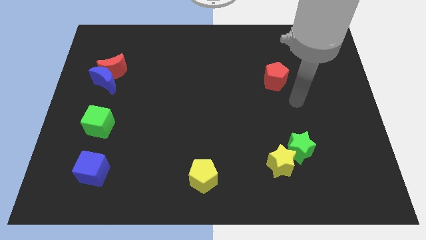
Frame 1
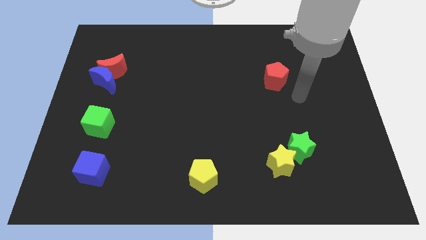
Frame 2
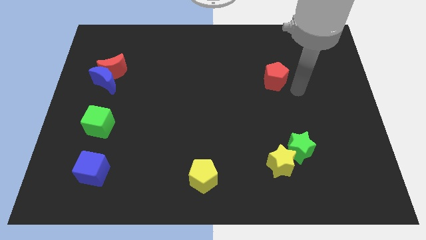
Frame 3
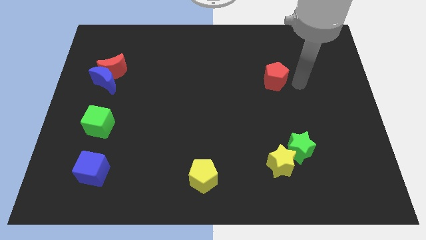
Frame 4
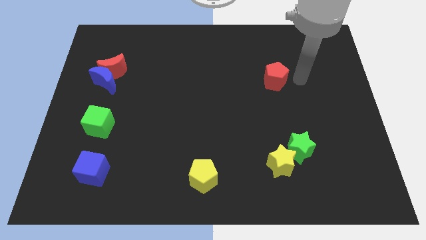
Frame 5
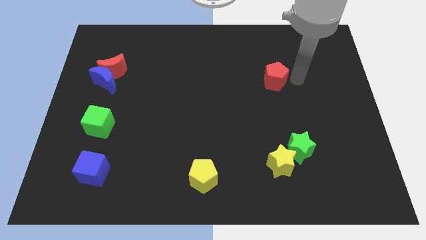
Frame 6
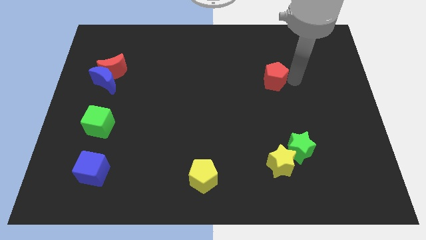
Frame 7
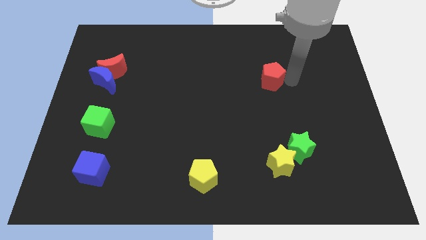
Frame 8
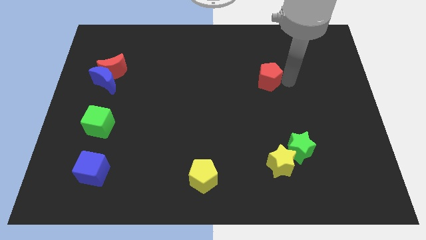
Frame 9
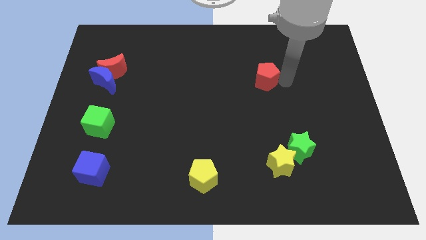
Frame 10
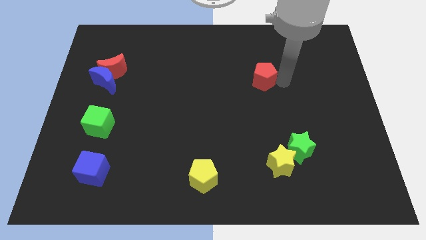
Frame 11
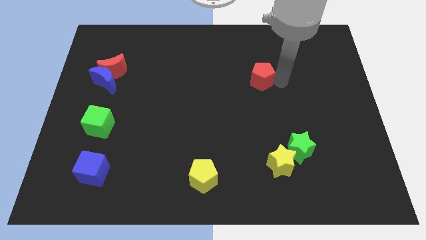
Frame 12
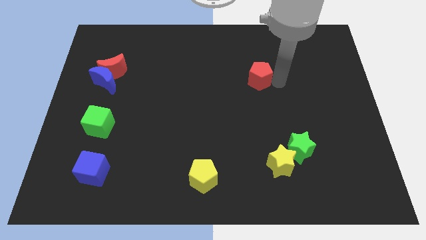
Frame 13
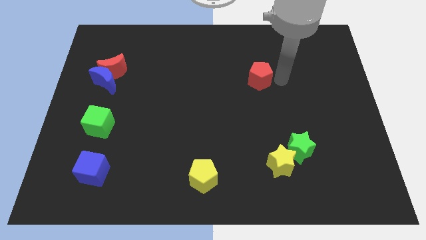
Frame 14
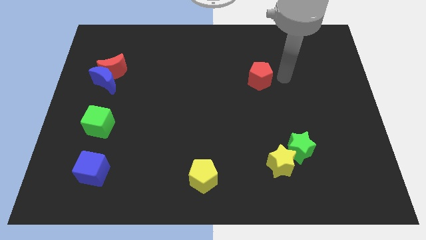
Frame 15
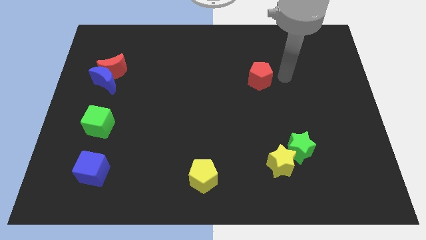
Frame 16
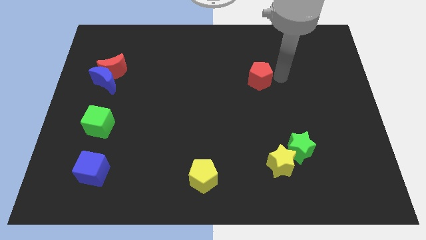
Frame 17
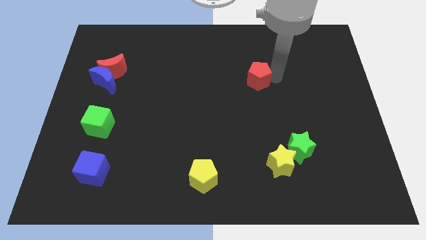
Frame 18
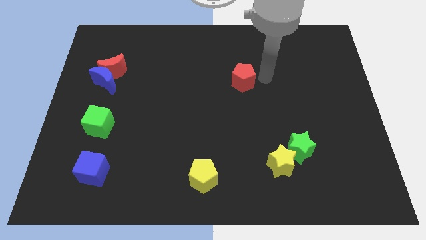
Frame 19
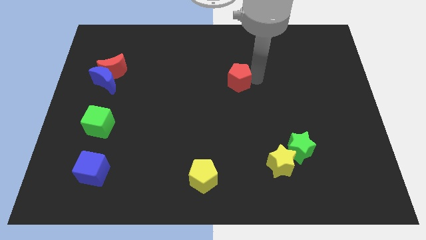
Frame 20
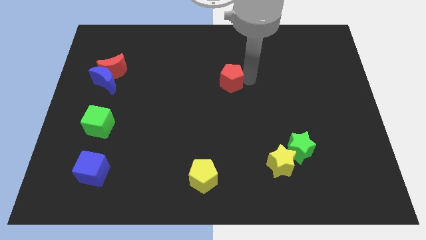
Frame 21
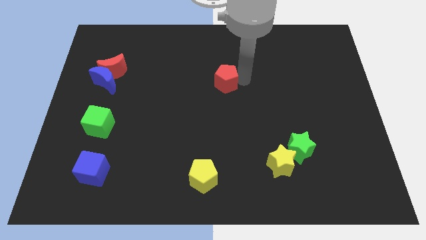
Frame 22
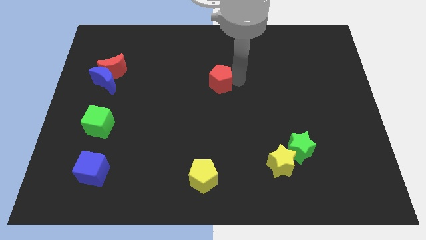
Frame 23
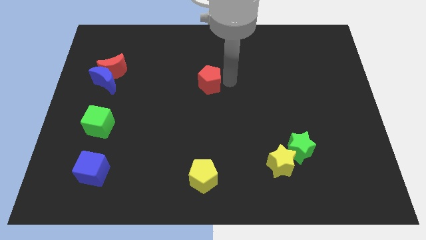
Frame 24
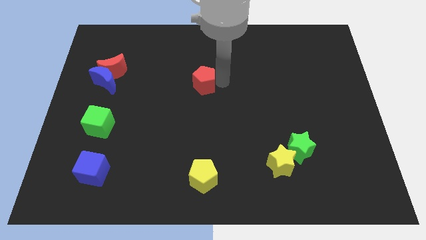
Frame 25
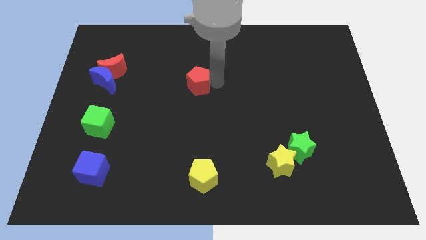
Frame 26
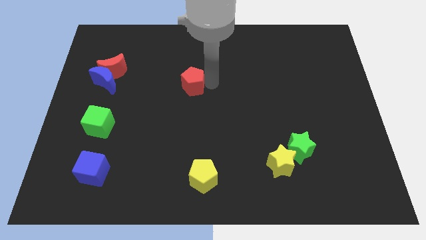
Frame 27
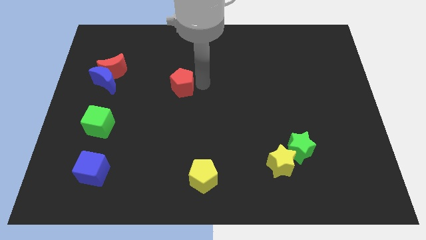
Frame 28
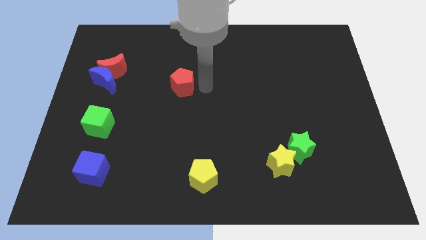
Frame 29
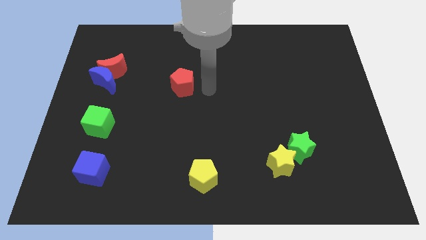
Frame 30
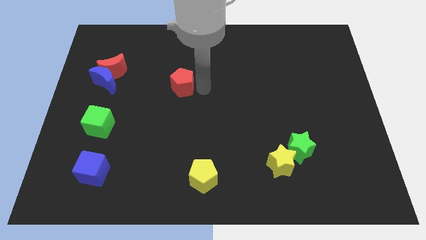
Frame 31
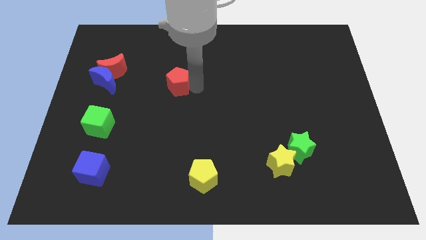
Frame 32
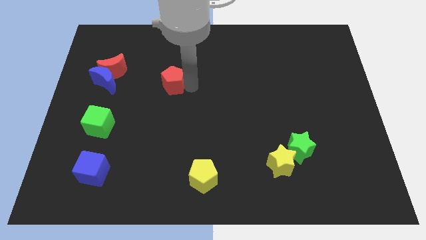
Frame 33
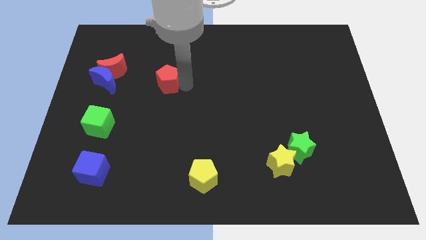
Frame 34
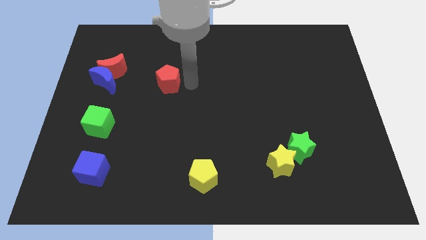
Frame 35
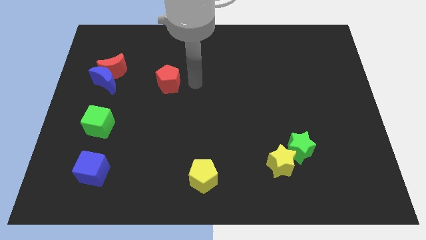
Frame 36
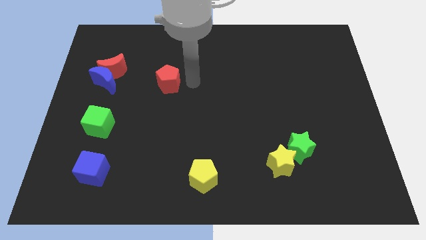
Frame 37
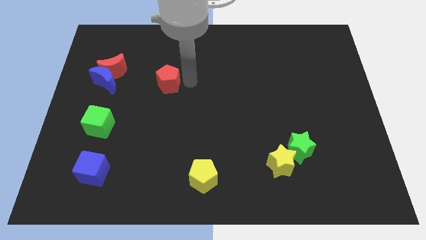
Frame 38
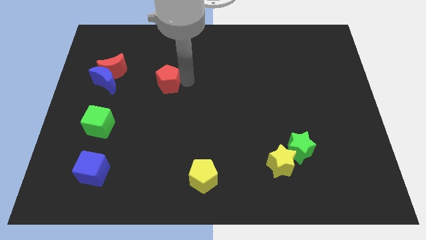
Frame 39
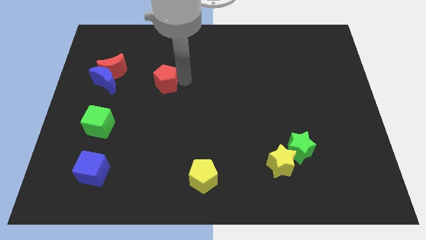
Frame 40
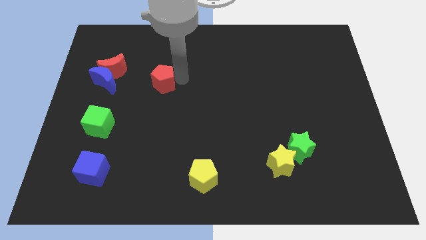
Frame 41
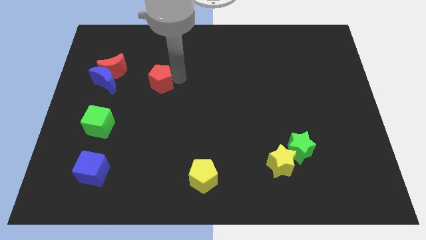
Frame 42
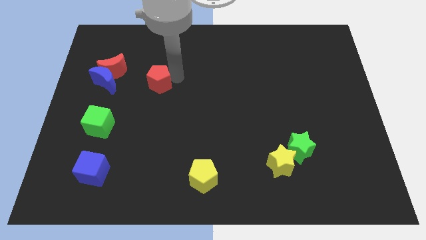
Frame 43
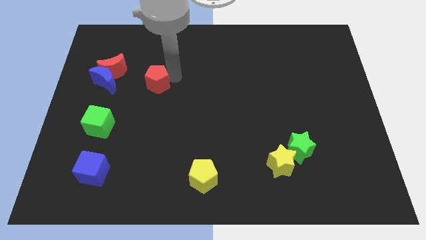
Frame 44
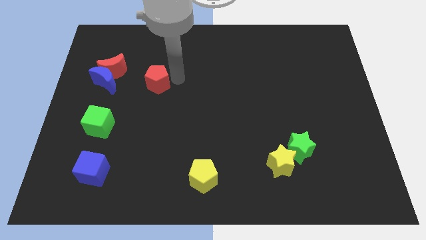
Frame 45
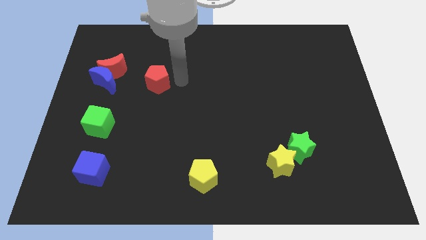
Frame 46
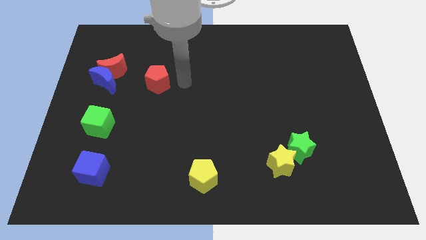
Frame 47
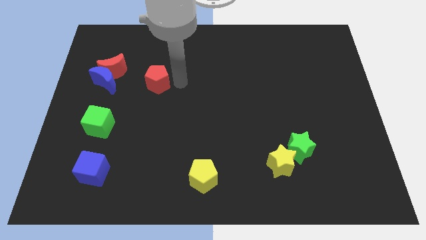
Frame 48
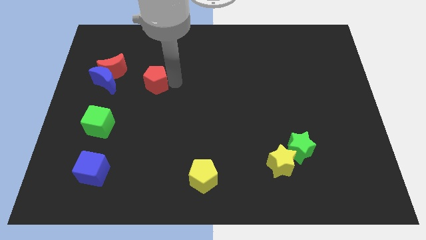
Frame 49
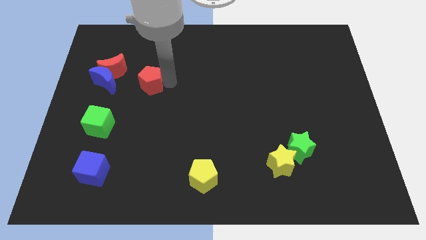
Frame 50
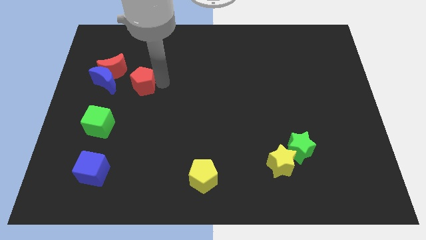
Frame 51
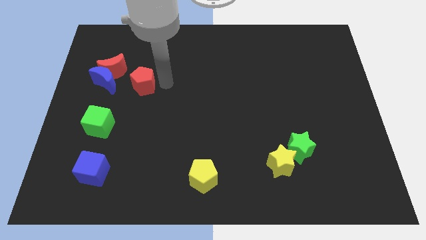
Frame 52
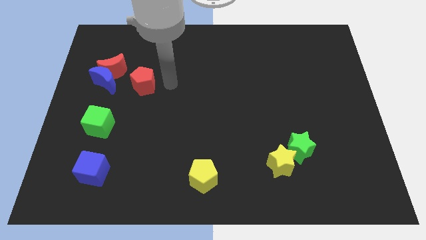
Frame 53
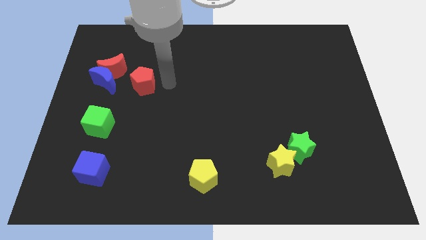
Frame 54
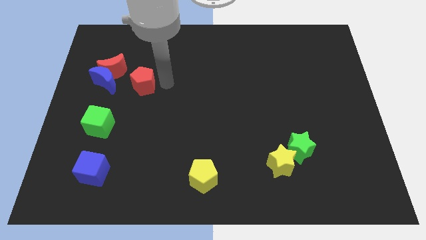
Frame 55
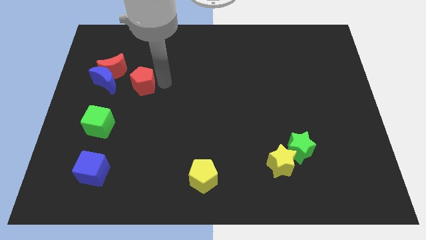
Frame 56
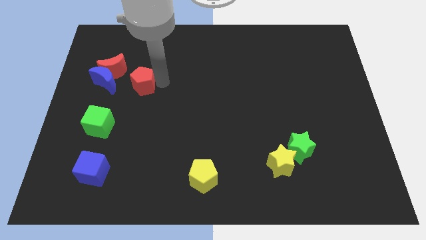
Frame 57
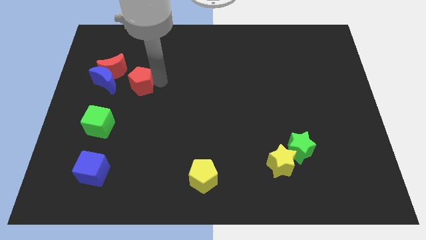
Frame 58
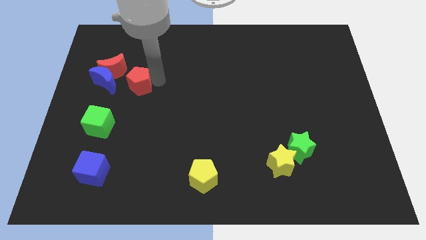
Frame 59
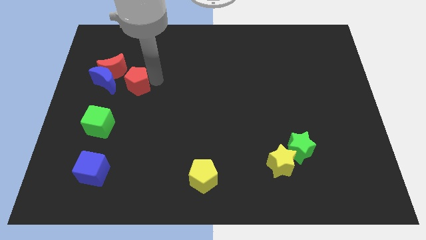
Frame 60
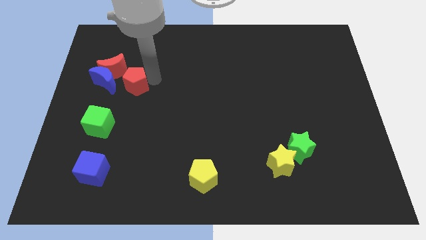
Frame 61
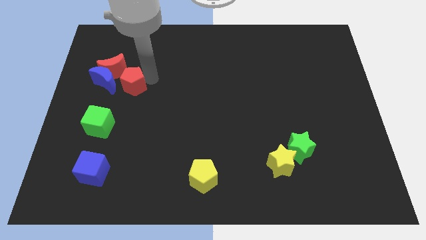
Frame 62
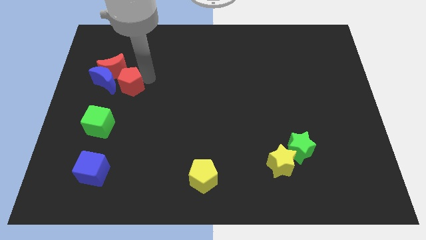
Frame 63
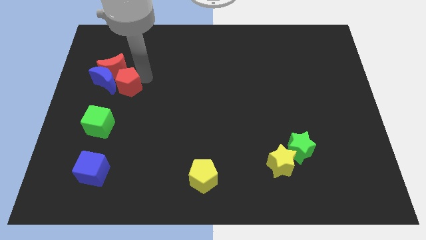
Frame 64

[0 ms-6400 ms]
slide the red pentagon close to the blue moon

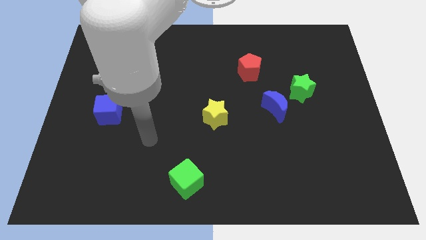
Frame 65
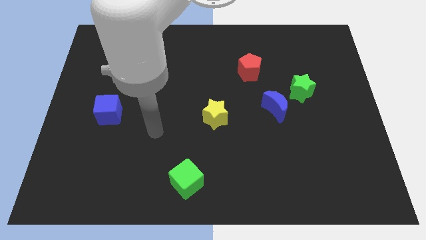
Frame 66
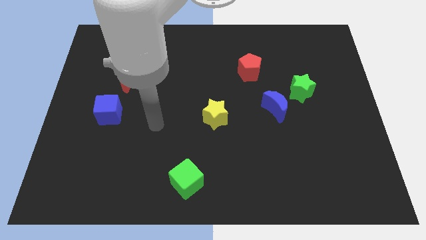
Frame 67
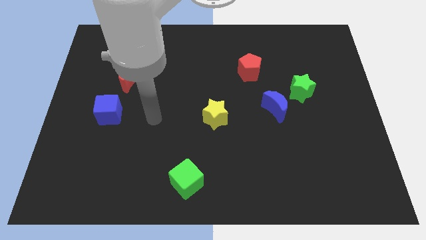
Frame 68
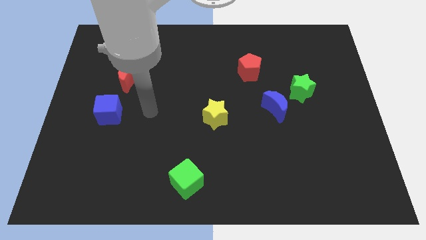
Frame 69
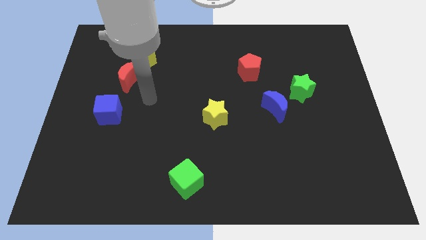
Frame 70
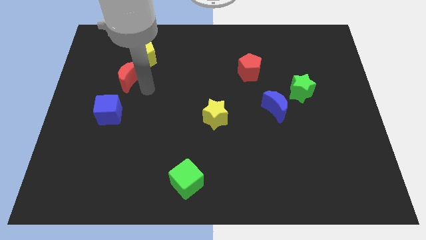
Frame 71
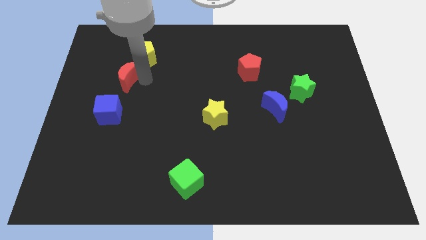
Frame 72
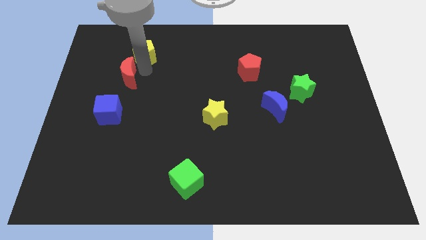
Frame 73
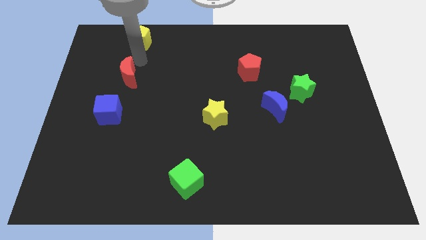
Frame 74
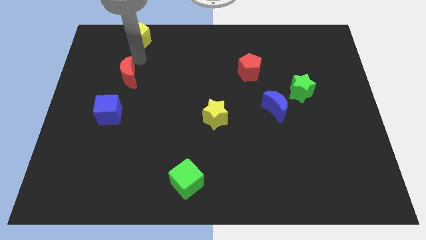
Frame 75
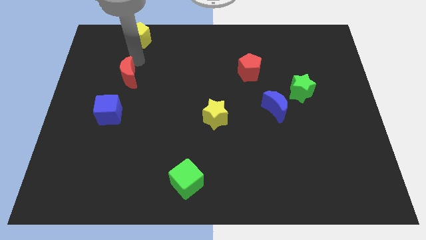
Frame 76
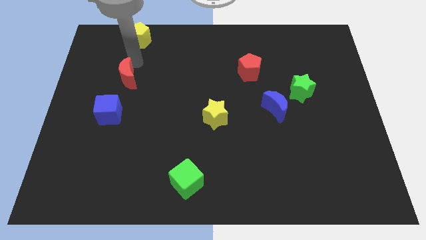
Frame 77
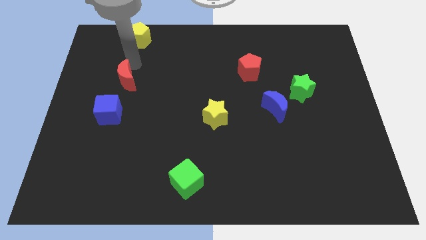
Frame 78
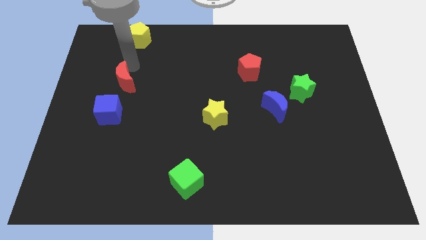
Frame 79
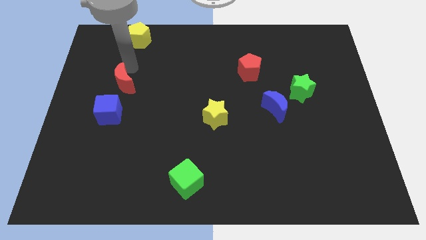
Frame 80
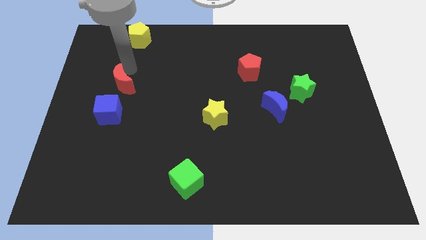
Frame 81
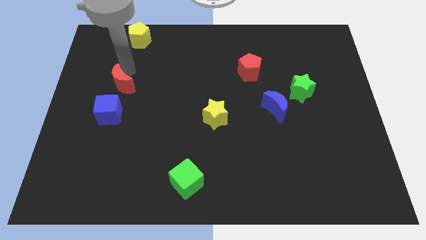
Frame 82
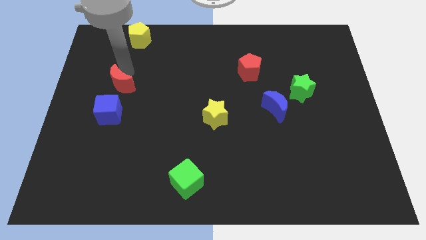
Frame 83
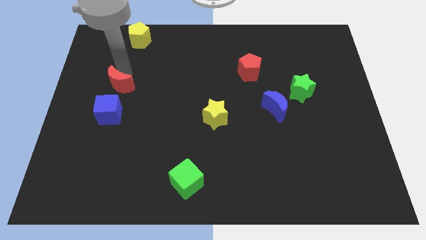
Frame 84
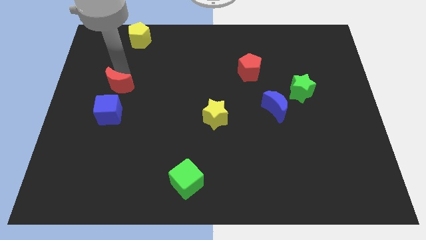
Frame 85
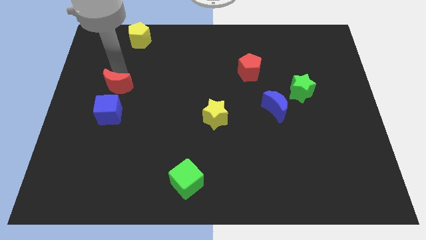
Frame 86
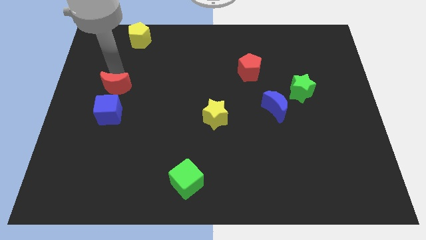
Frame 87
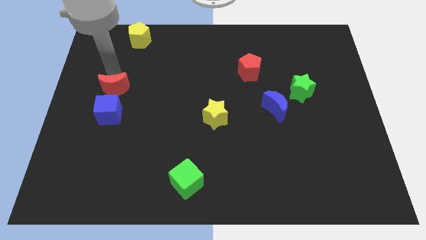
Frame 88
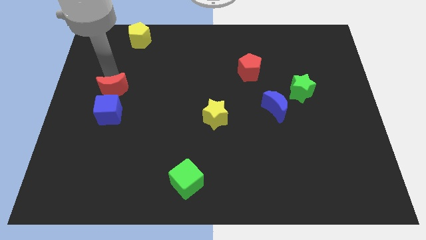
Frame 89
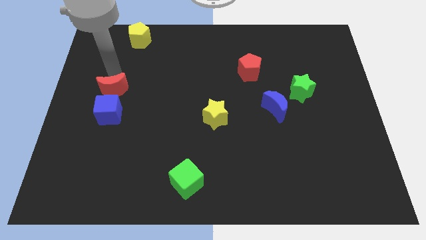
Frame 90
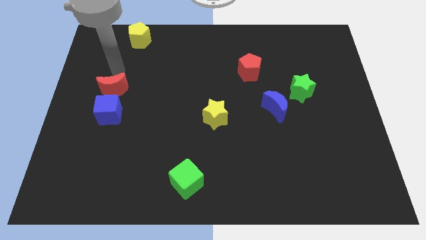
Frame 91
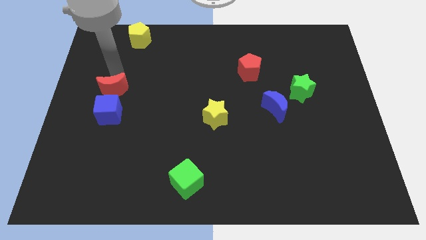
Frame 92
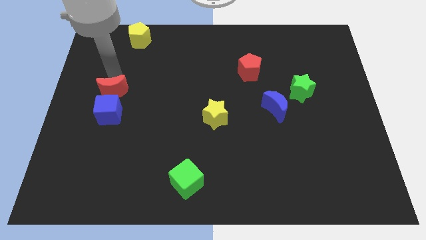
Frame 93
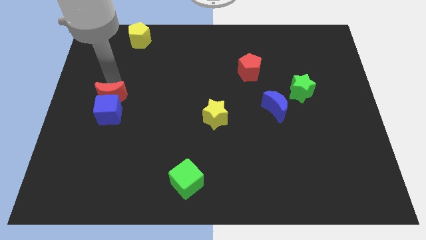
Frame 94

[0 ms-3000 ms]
move the red moon next to the blue cube
